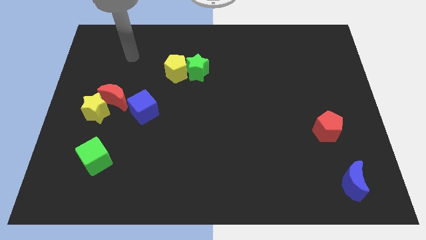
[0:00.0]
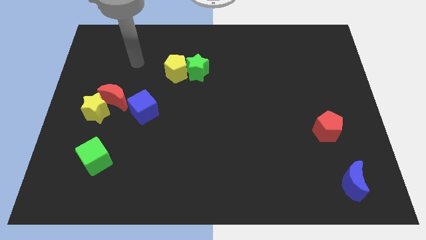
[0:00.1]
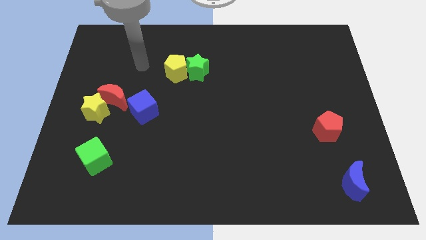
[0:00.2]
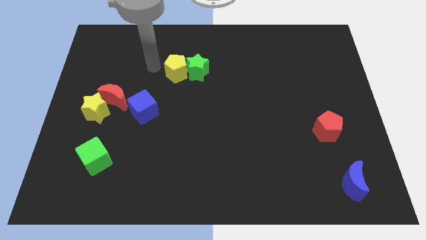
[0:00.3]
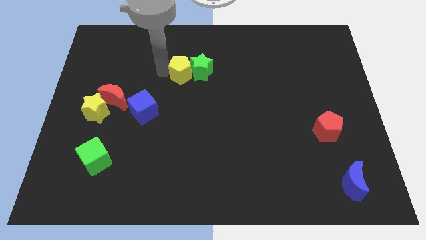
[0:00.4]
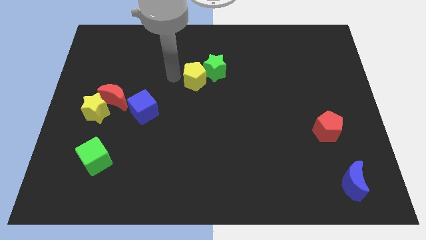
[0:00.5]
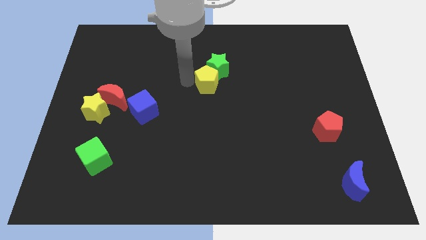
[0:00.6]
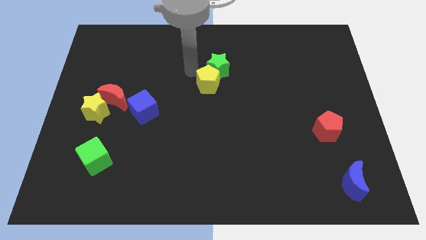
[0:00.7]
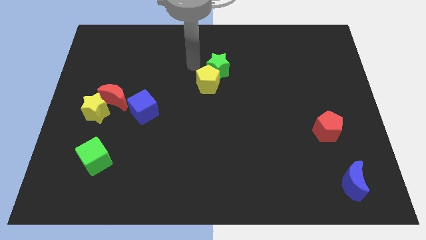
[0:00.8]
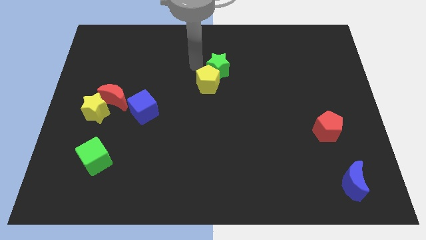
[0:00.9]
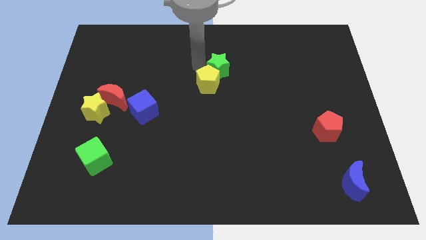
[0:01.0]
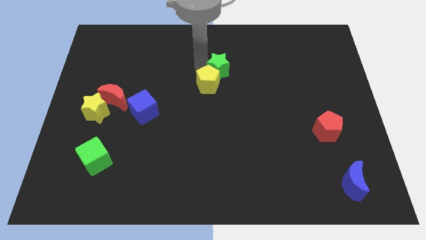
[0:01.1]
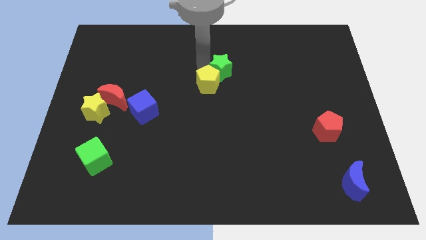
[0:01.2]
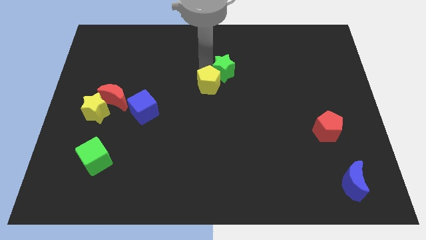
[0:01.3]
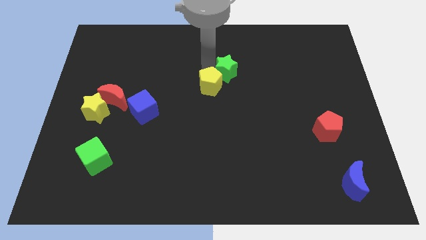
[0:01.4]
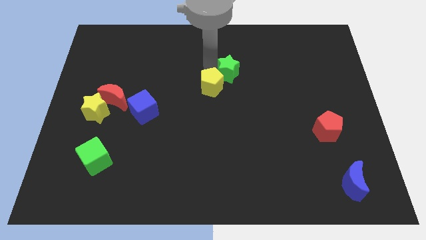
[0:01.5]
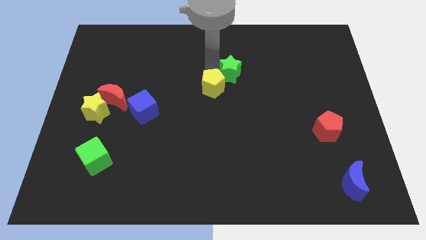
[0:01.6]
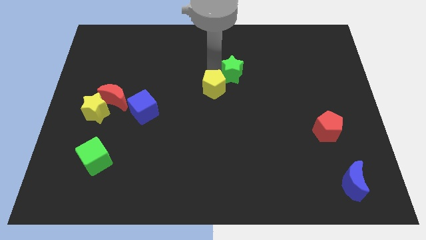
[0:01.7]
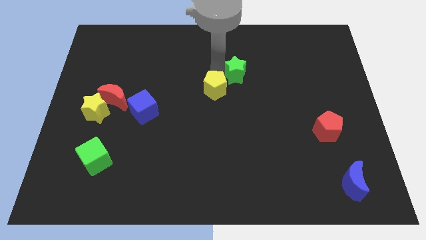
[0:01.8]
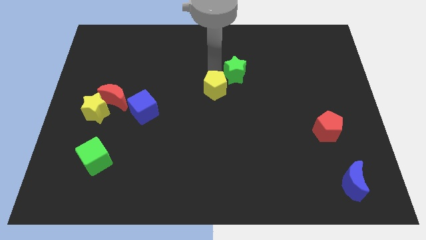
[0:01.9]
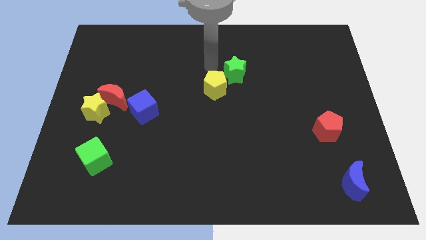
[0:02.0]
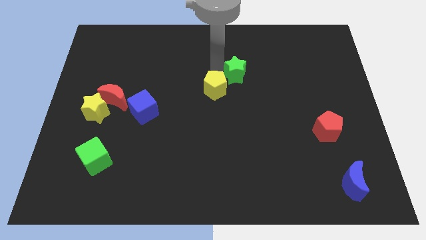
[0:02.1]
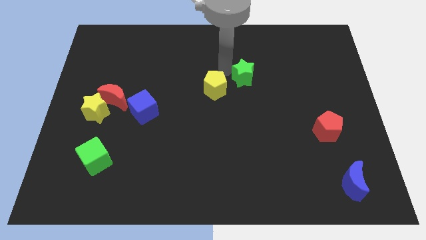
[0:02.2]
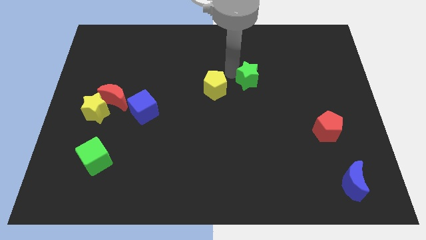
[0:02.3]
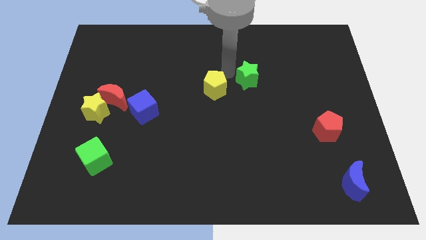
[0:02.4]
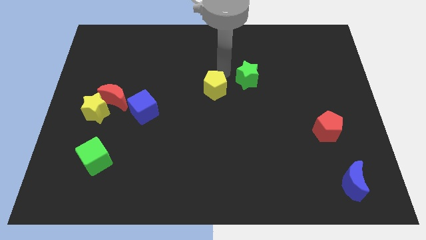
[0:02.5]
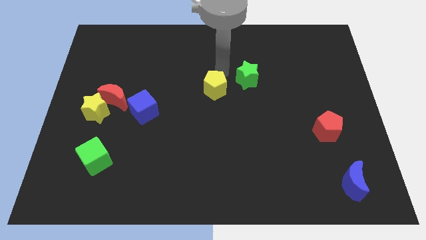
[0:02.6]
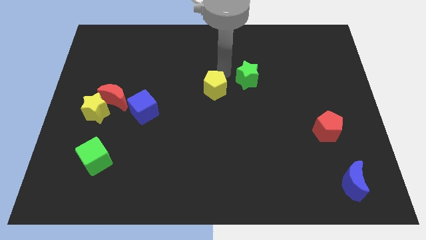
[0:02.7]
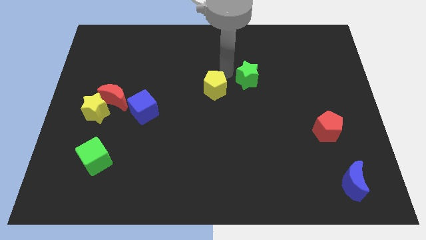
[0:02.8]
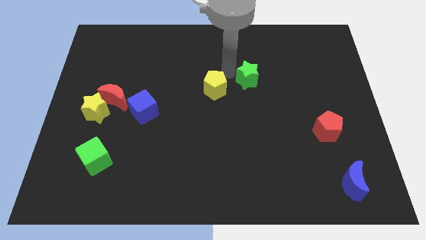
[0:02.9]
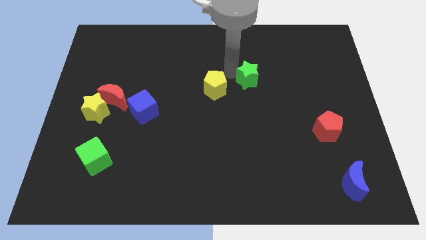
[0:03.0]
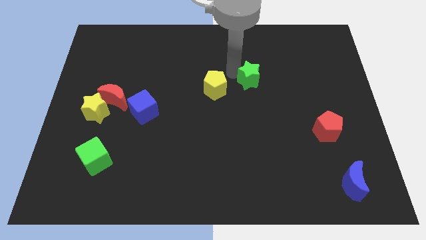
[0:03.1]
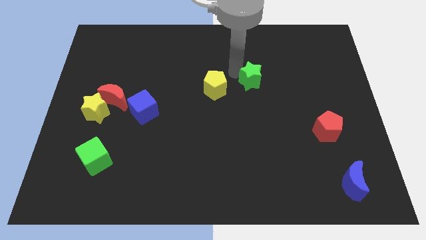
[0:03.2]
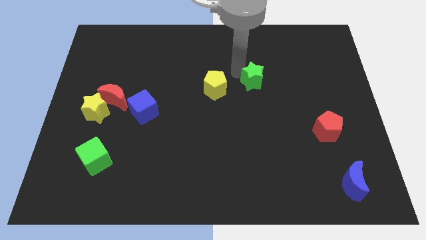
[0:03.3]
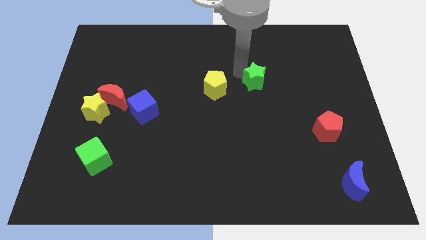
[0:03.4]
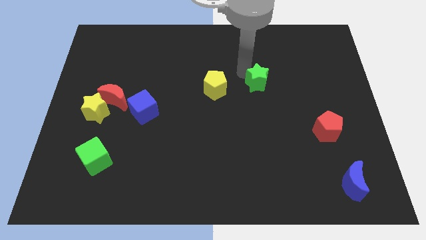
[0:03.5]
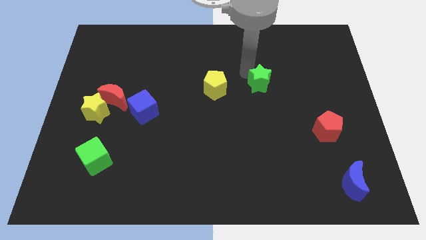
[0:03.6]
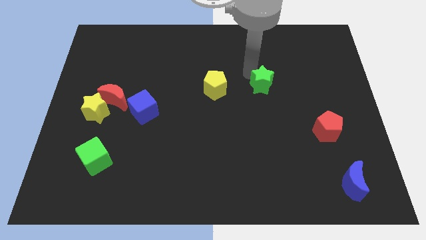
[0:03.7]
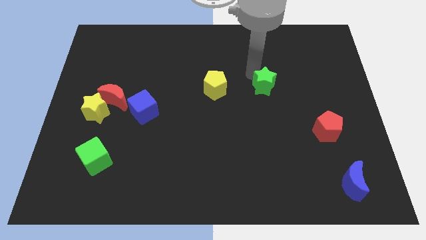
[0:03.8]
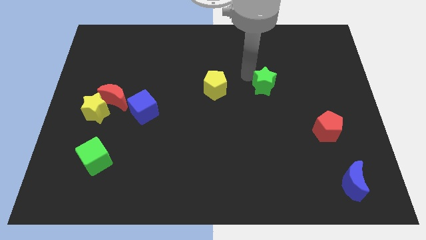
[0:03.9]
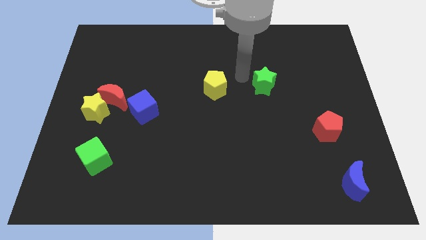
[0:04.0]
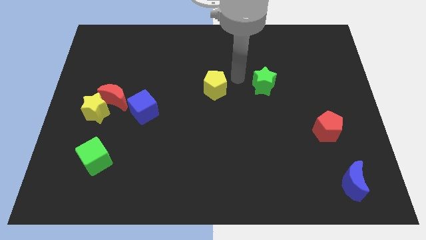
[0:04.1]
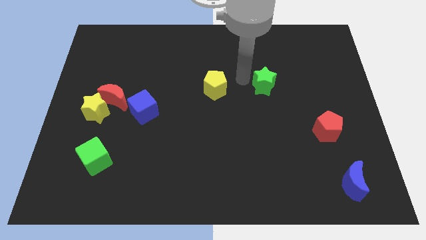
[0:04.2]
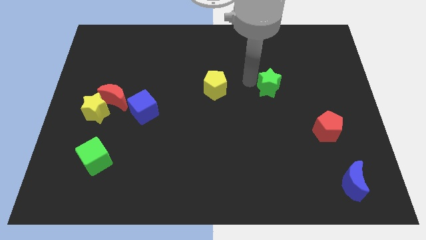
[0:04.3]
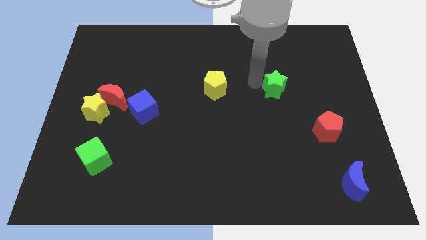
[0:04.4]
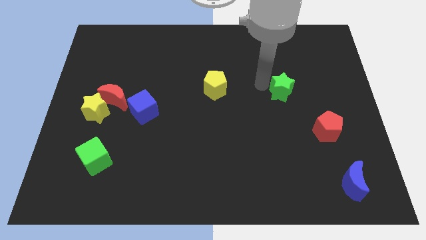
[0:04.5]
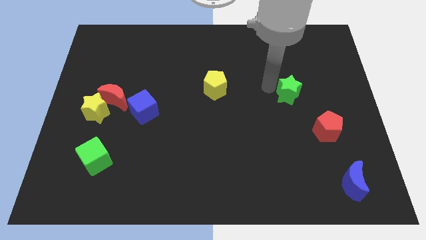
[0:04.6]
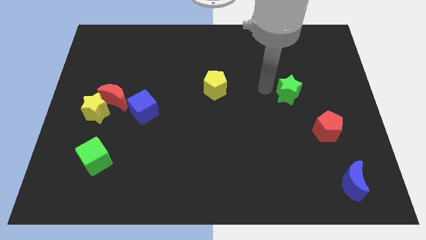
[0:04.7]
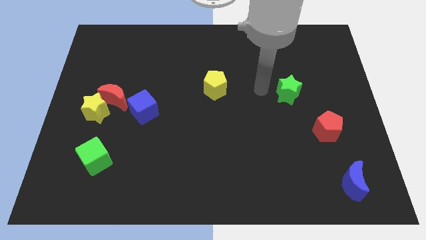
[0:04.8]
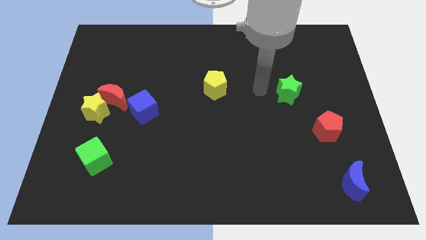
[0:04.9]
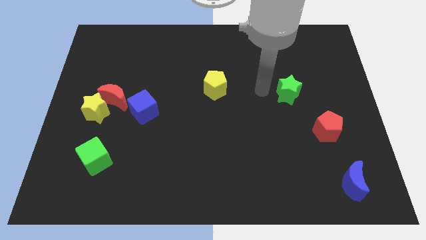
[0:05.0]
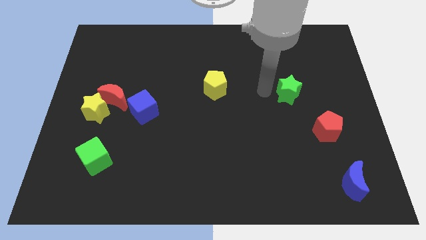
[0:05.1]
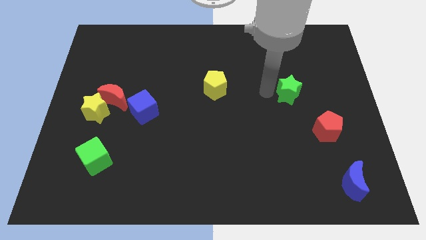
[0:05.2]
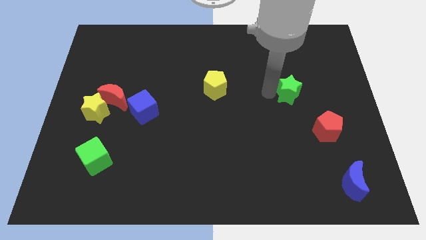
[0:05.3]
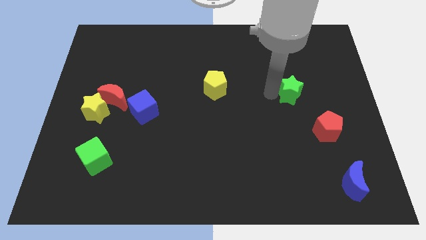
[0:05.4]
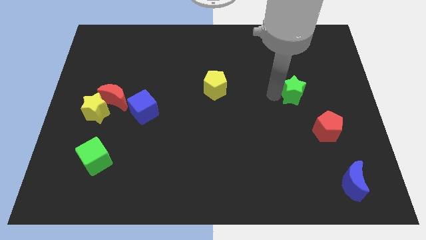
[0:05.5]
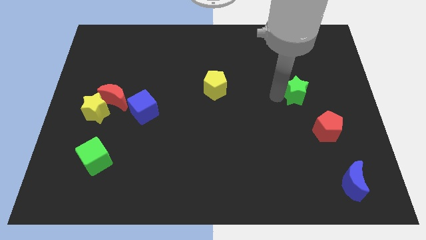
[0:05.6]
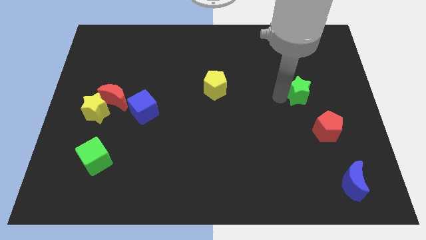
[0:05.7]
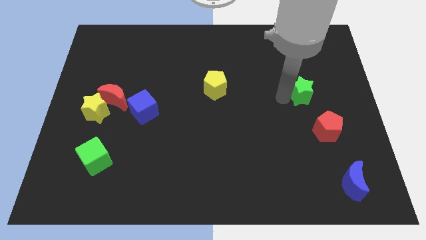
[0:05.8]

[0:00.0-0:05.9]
push the green star to the top of the red pentagon

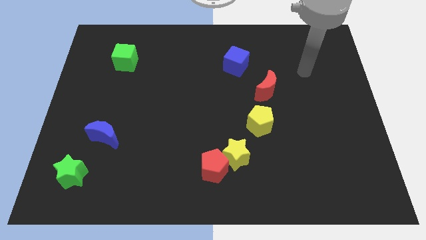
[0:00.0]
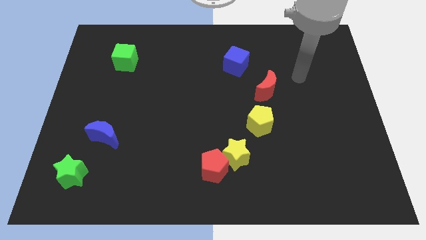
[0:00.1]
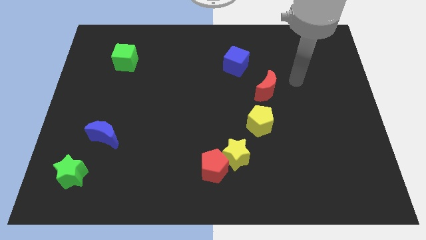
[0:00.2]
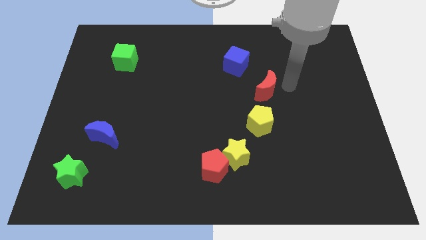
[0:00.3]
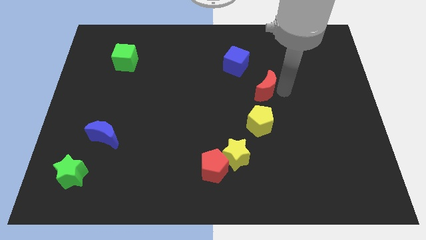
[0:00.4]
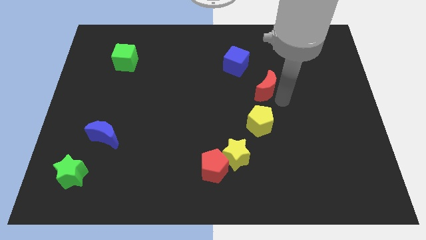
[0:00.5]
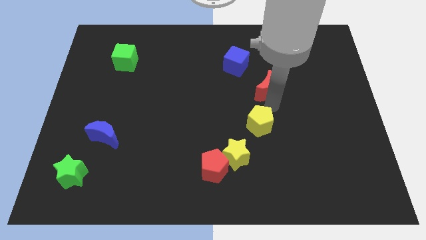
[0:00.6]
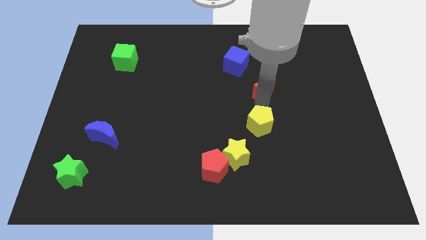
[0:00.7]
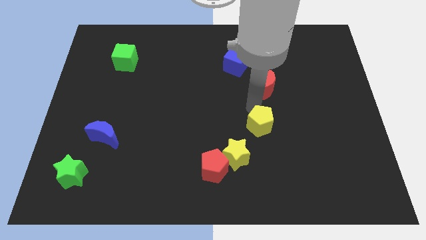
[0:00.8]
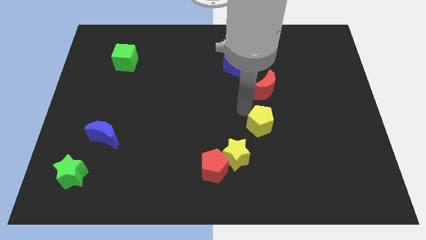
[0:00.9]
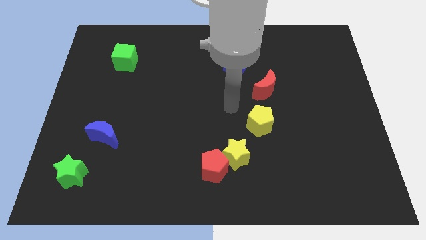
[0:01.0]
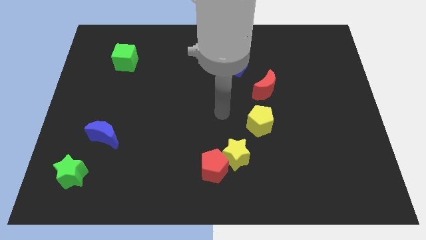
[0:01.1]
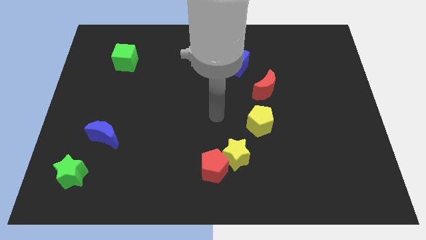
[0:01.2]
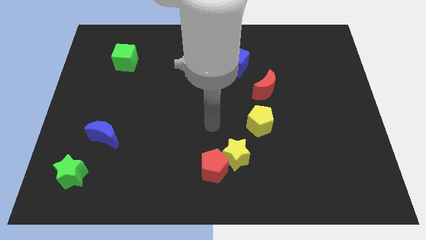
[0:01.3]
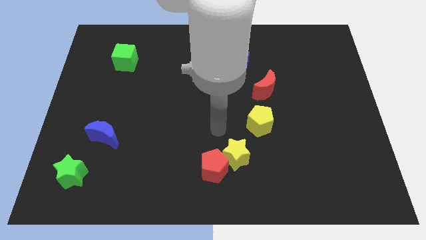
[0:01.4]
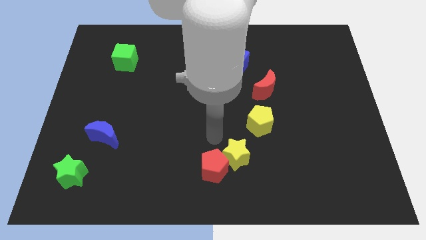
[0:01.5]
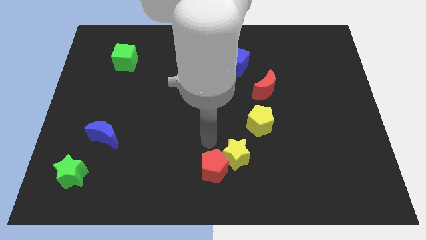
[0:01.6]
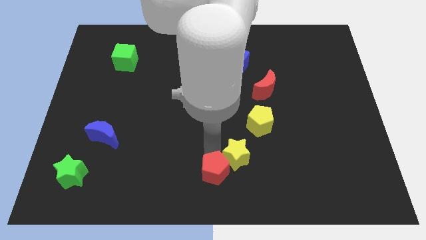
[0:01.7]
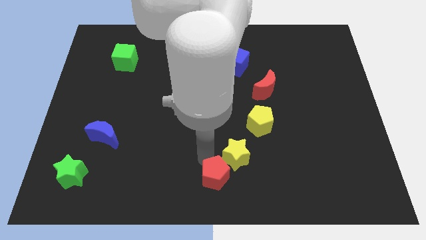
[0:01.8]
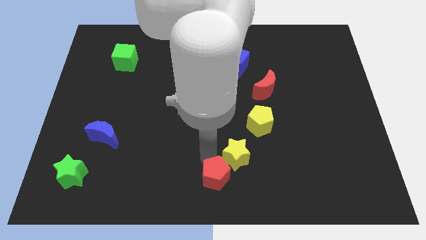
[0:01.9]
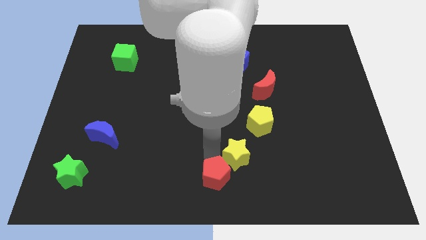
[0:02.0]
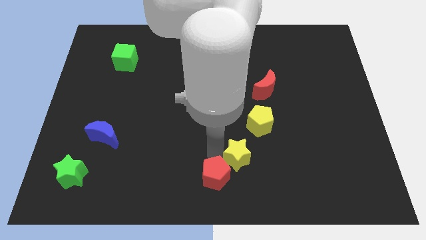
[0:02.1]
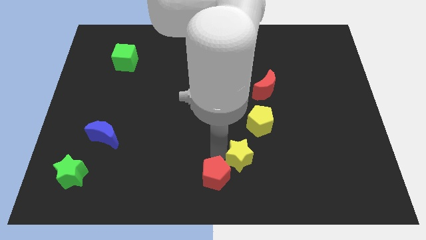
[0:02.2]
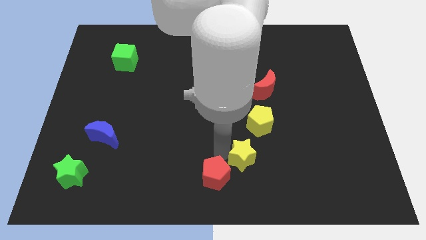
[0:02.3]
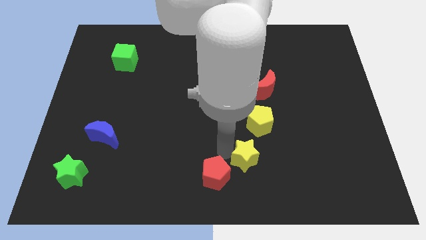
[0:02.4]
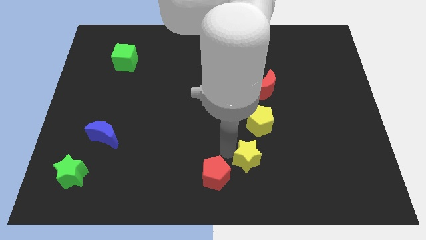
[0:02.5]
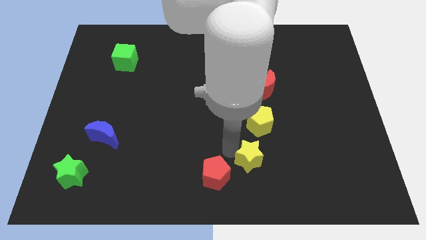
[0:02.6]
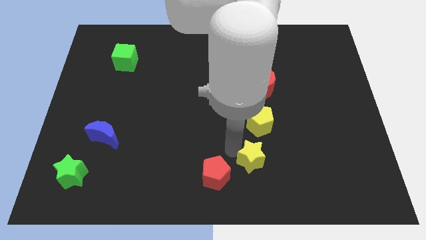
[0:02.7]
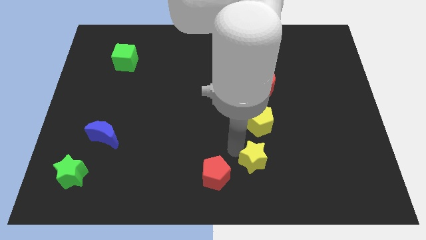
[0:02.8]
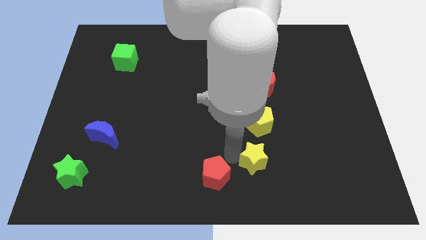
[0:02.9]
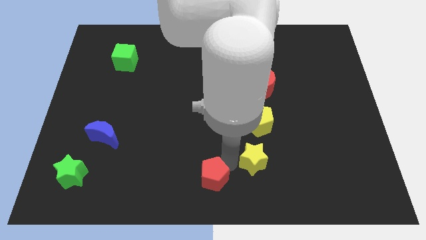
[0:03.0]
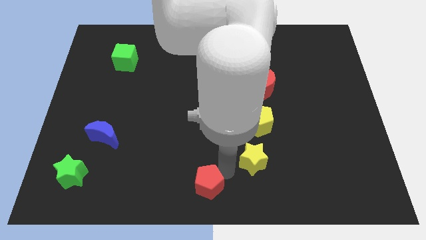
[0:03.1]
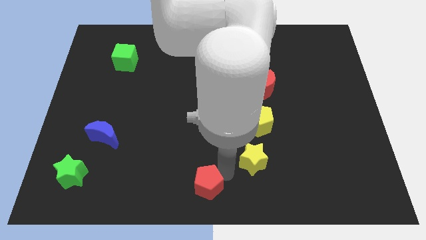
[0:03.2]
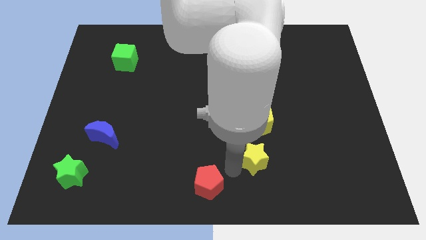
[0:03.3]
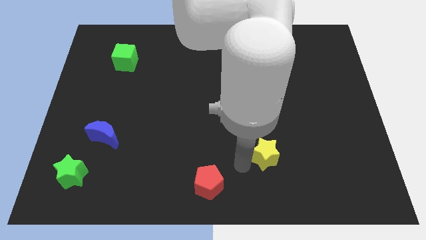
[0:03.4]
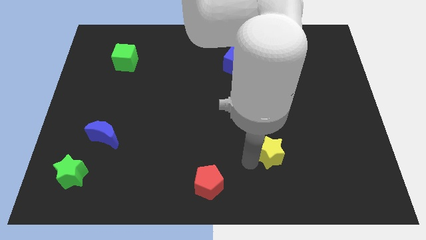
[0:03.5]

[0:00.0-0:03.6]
move the yellow star to the bottom right side of the yellow pentagon
